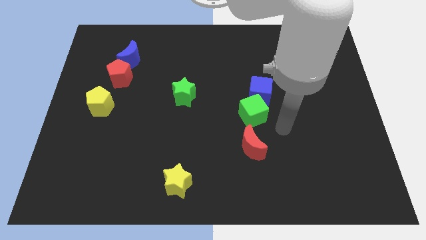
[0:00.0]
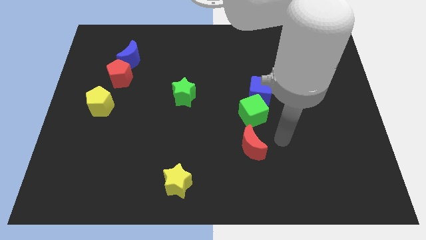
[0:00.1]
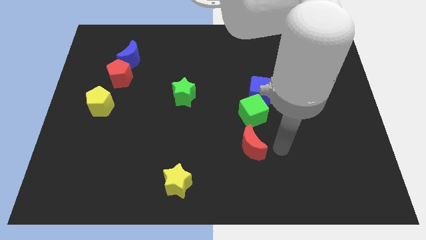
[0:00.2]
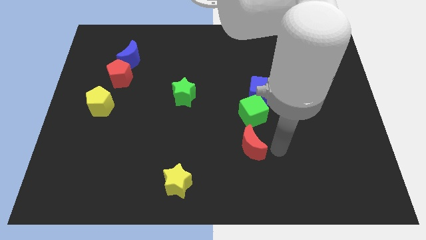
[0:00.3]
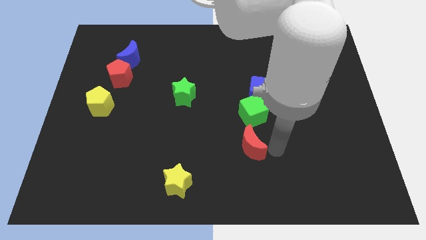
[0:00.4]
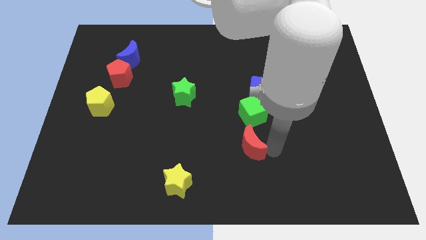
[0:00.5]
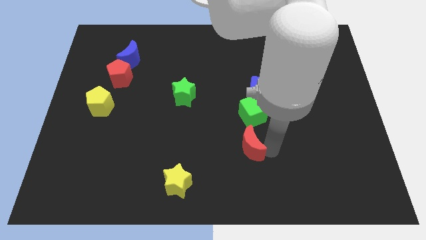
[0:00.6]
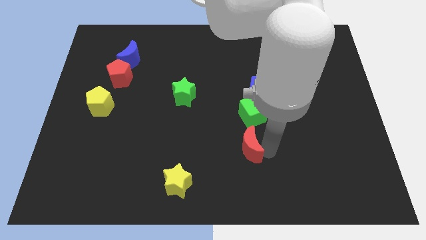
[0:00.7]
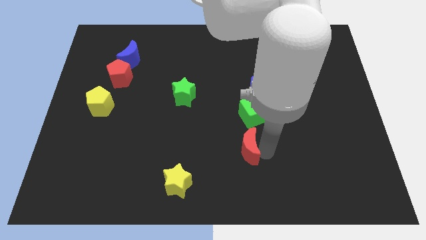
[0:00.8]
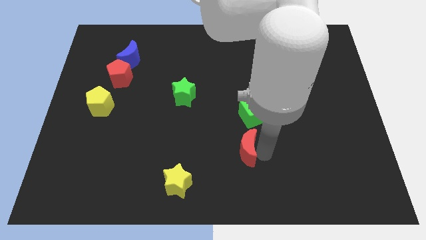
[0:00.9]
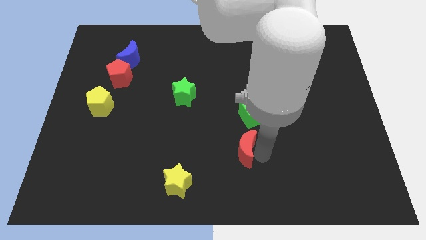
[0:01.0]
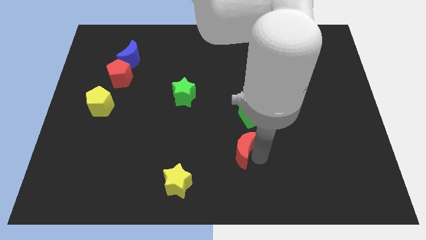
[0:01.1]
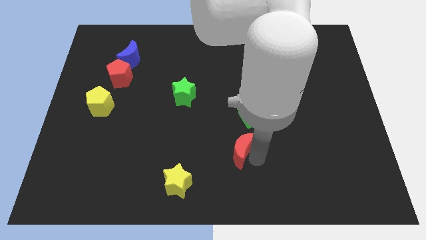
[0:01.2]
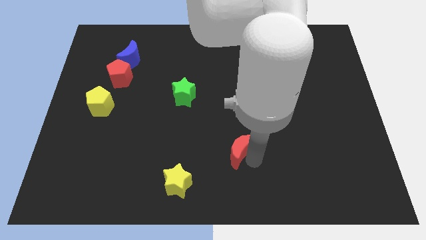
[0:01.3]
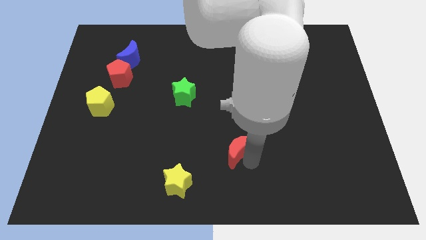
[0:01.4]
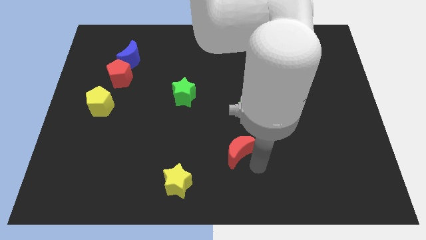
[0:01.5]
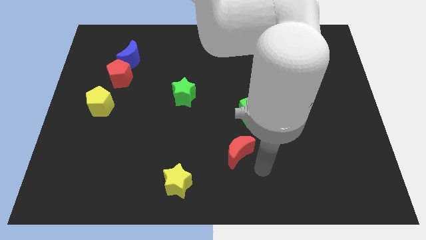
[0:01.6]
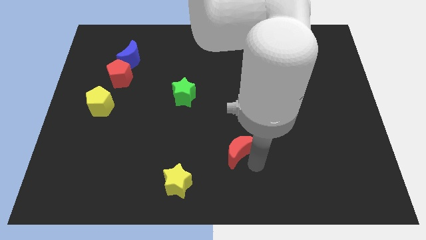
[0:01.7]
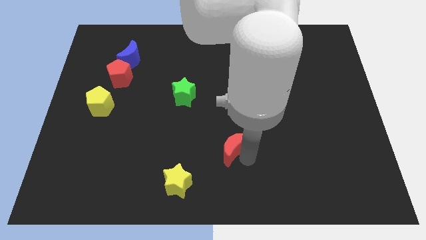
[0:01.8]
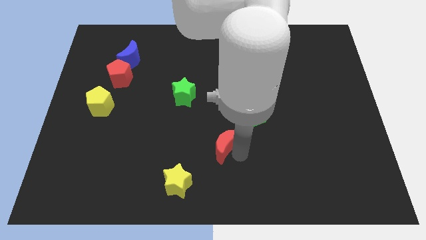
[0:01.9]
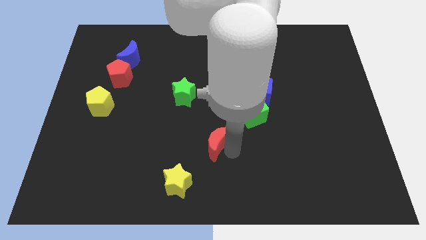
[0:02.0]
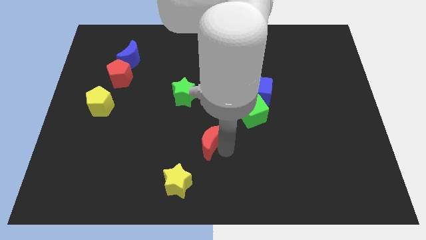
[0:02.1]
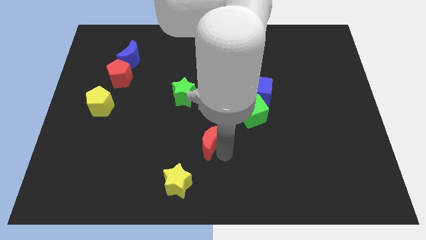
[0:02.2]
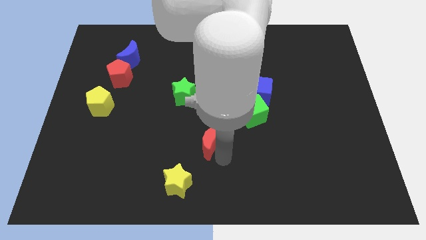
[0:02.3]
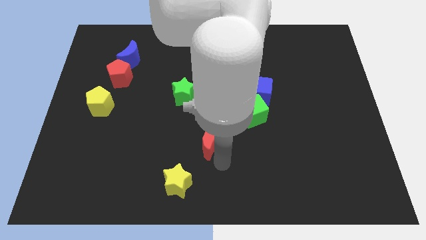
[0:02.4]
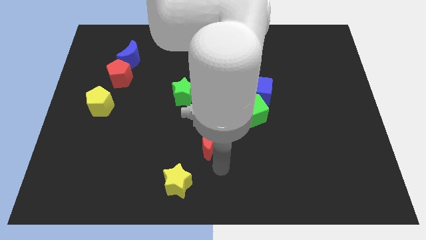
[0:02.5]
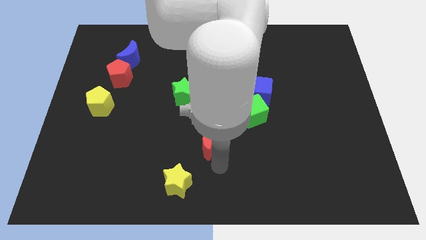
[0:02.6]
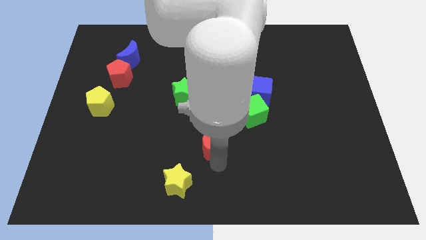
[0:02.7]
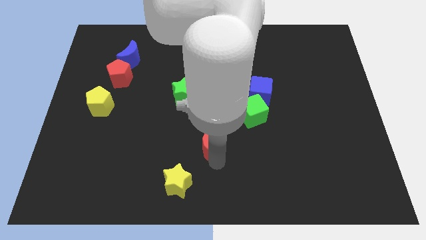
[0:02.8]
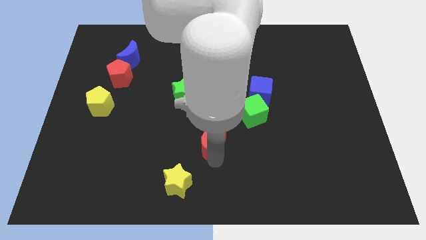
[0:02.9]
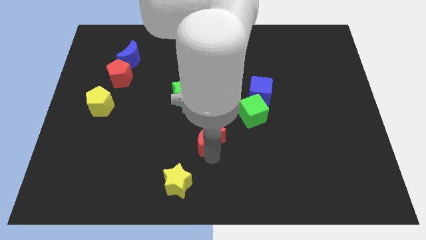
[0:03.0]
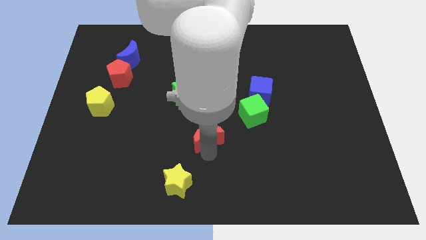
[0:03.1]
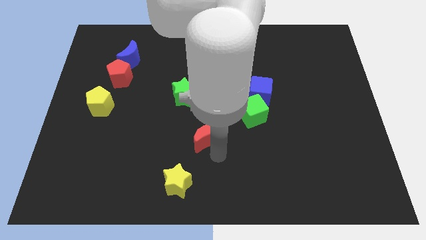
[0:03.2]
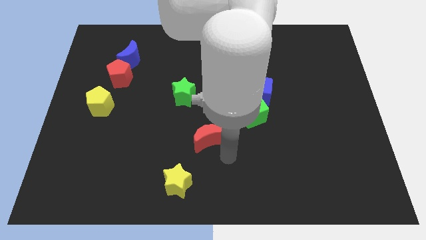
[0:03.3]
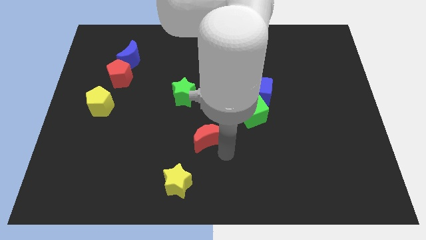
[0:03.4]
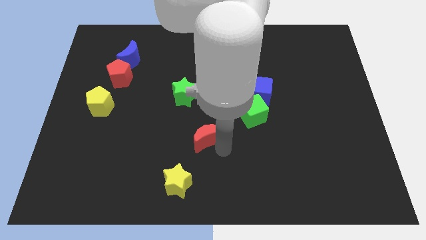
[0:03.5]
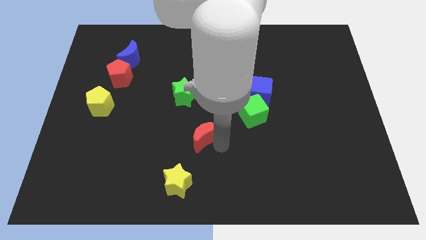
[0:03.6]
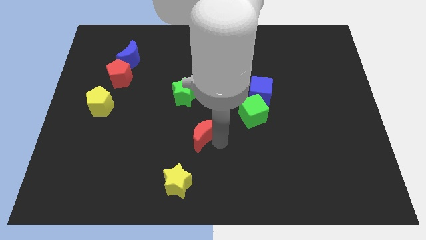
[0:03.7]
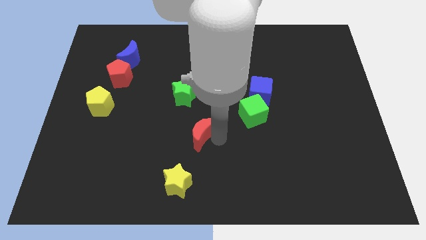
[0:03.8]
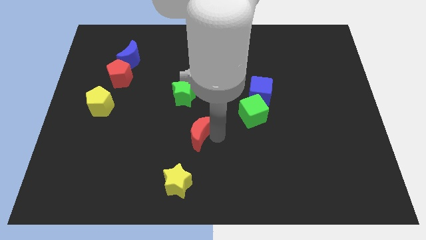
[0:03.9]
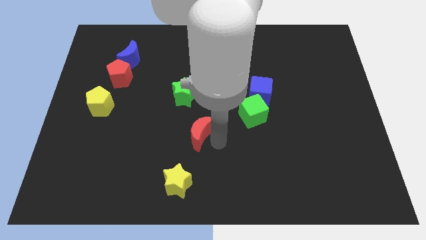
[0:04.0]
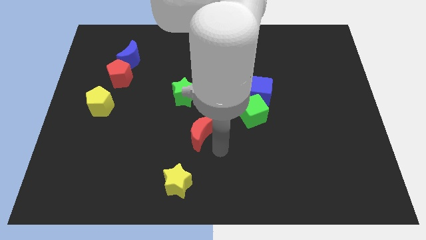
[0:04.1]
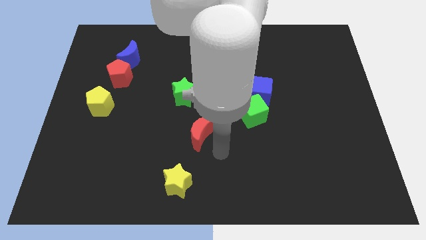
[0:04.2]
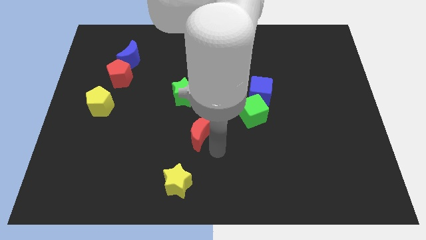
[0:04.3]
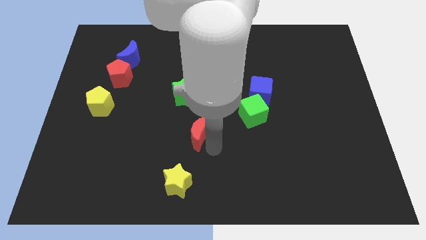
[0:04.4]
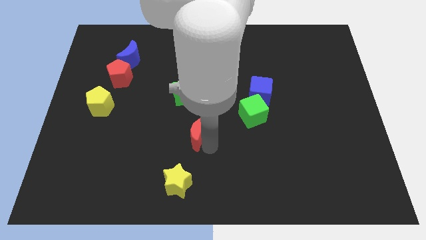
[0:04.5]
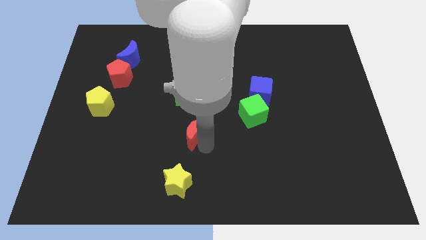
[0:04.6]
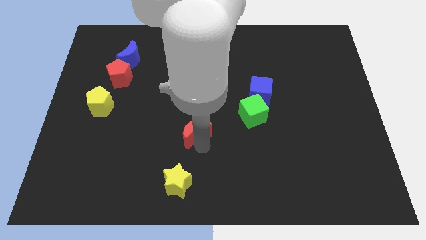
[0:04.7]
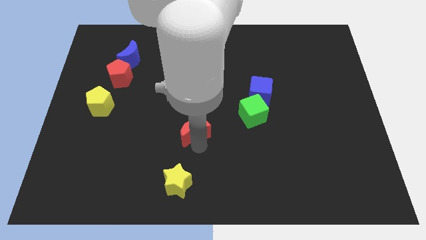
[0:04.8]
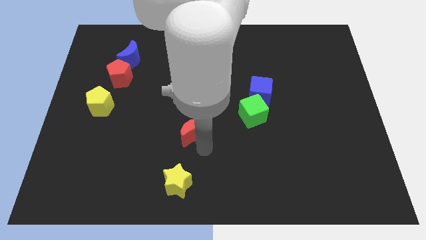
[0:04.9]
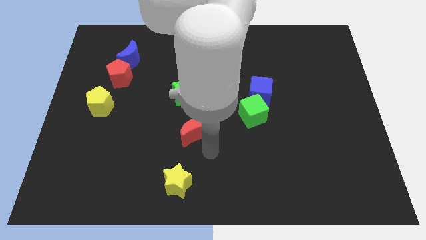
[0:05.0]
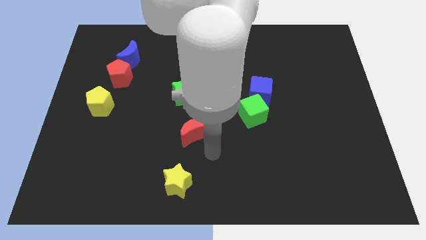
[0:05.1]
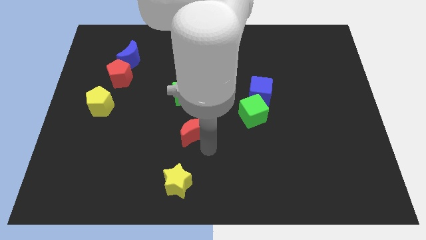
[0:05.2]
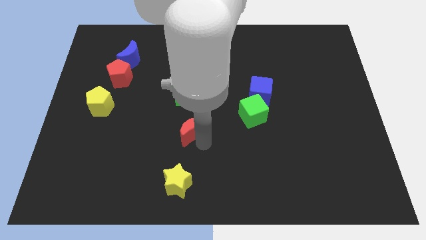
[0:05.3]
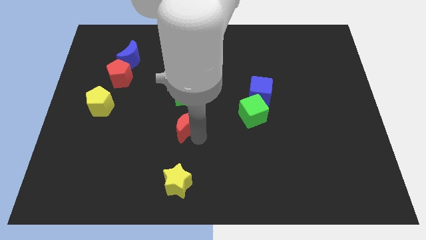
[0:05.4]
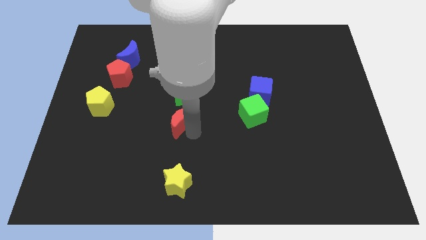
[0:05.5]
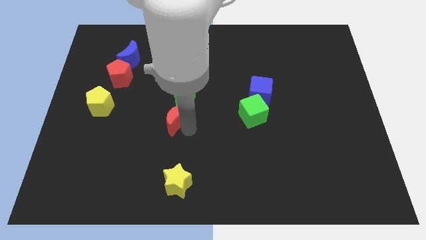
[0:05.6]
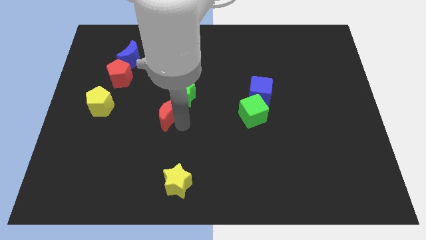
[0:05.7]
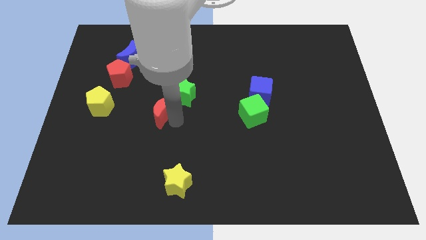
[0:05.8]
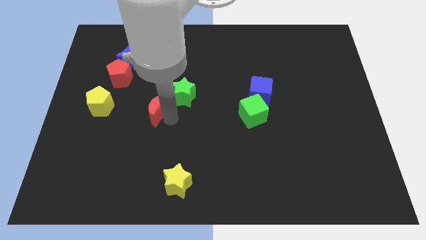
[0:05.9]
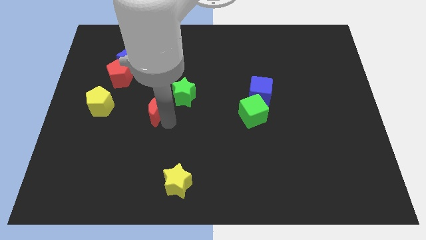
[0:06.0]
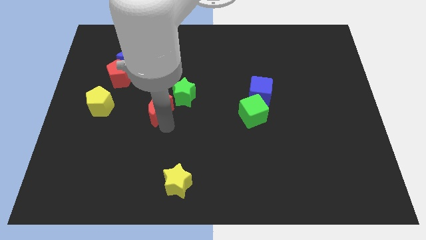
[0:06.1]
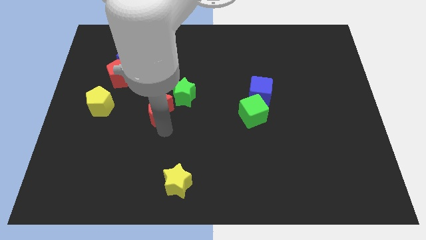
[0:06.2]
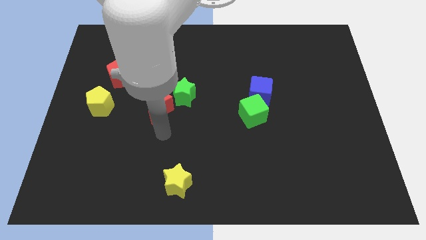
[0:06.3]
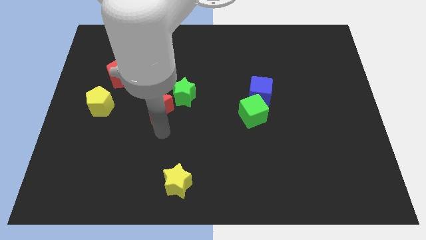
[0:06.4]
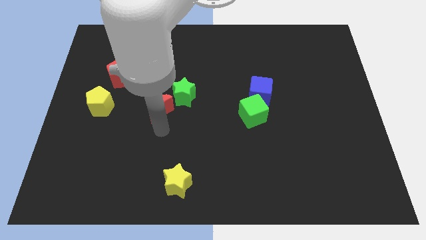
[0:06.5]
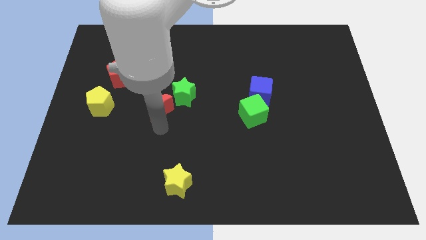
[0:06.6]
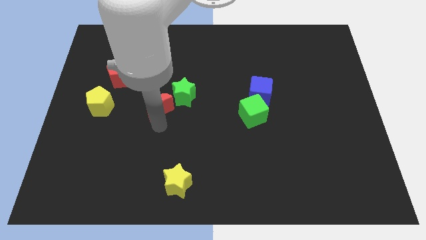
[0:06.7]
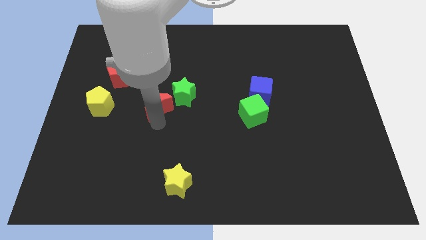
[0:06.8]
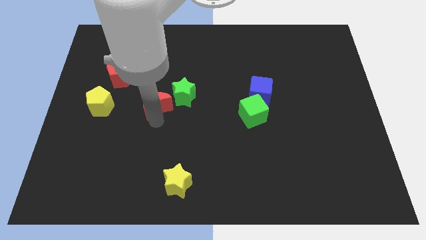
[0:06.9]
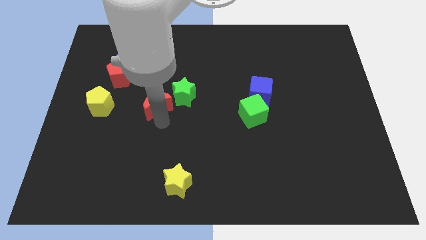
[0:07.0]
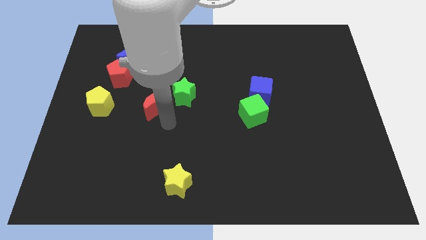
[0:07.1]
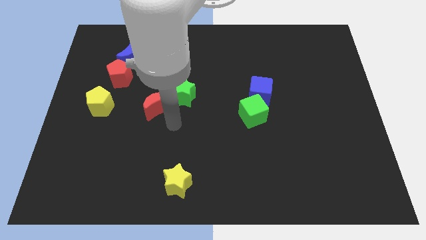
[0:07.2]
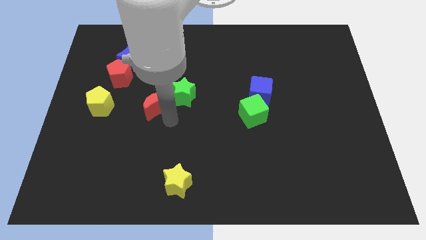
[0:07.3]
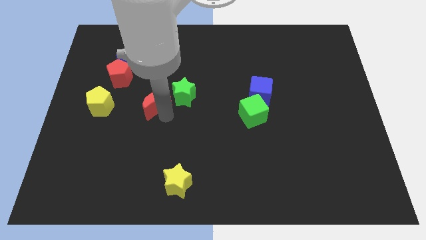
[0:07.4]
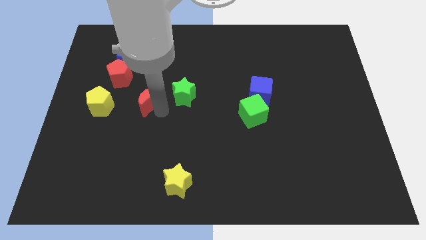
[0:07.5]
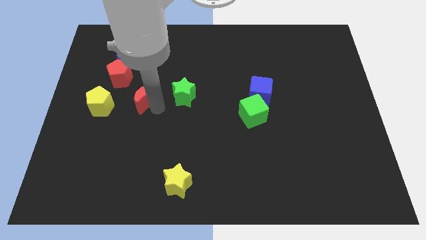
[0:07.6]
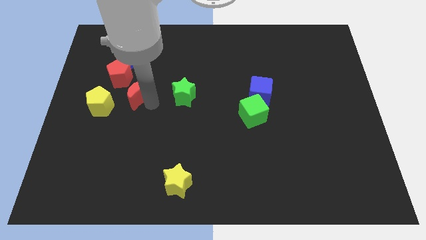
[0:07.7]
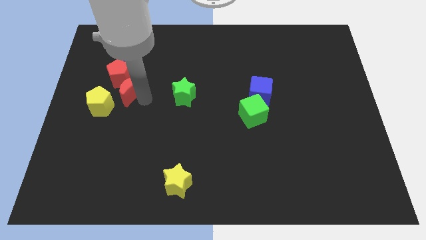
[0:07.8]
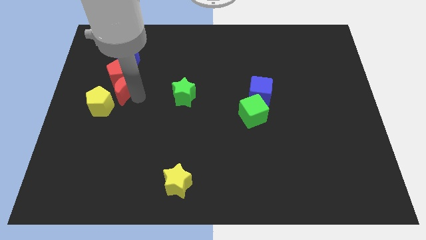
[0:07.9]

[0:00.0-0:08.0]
move the red moon towards the red pentagon
